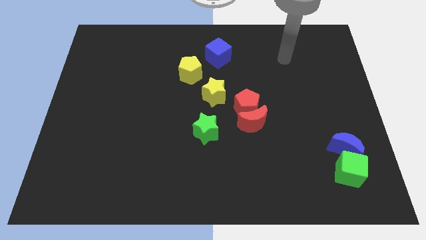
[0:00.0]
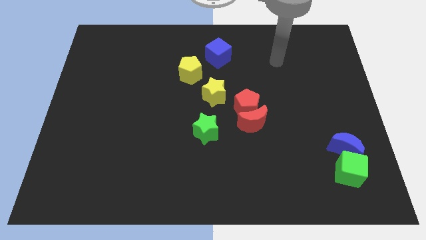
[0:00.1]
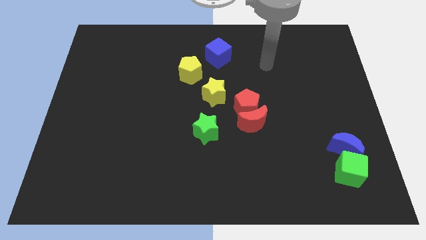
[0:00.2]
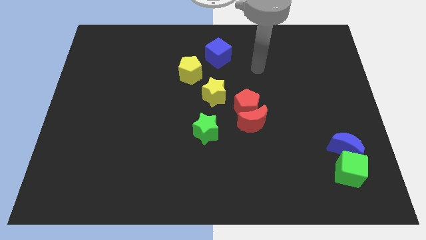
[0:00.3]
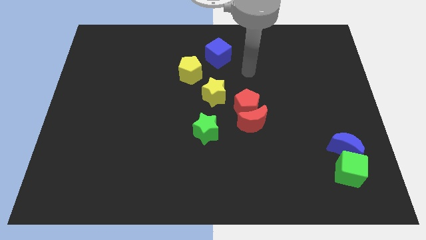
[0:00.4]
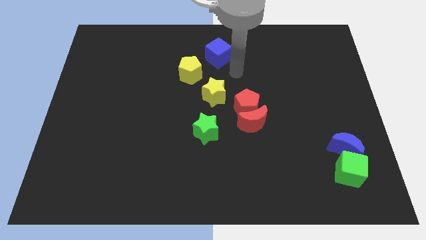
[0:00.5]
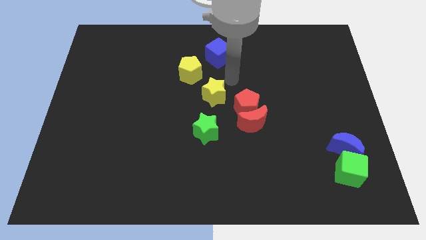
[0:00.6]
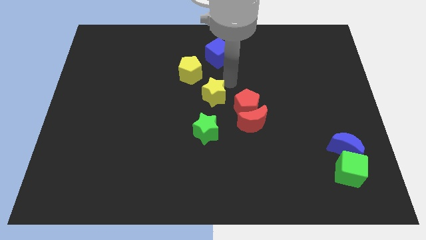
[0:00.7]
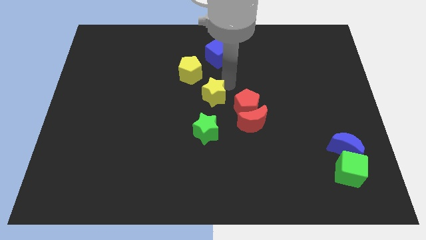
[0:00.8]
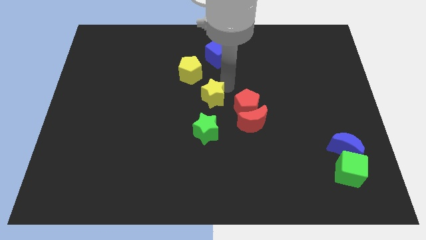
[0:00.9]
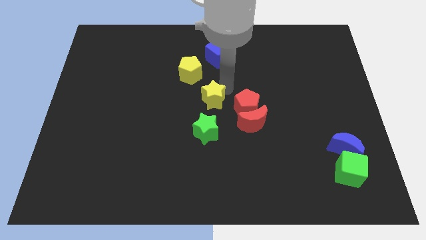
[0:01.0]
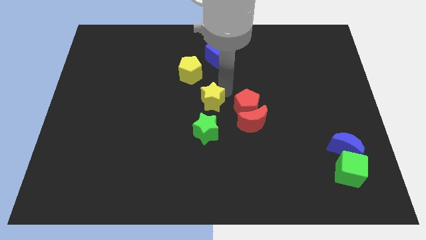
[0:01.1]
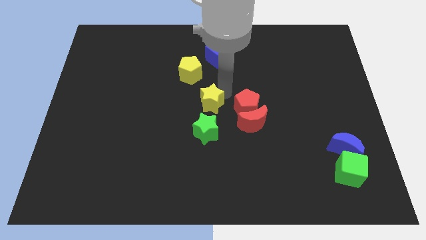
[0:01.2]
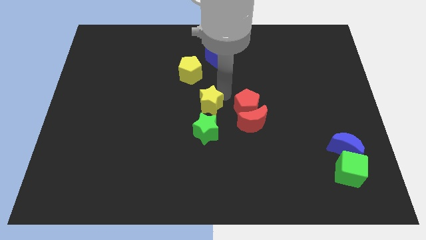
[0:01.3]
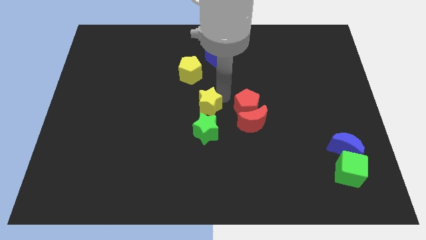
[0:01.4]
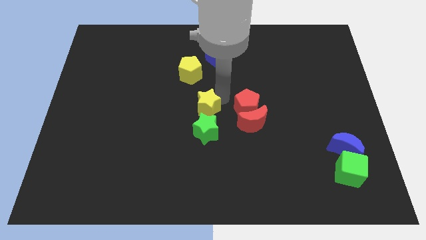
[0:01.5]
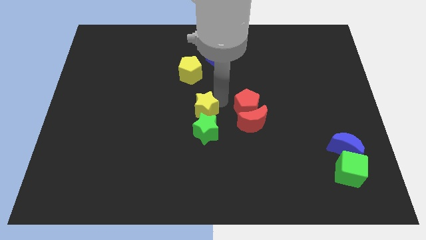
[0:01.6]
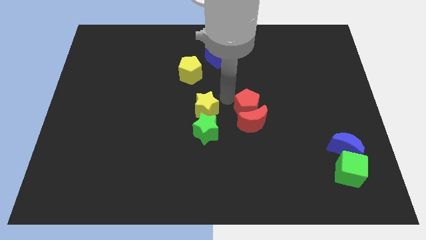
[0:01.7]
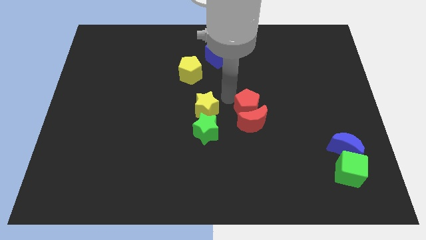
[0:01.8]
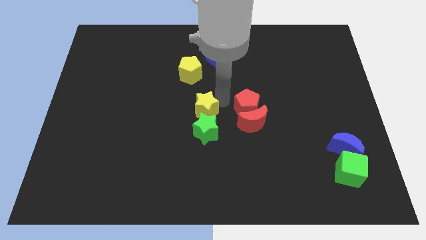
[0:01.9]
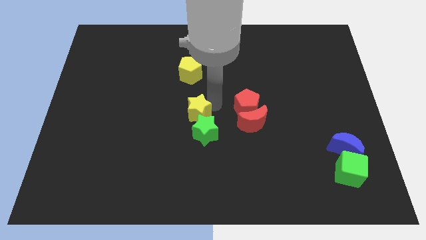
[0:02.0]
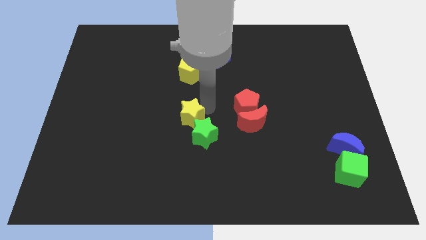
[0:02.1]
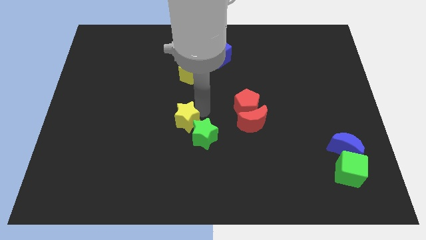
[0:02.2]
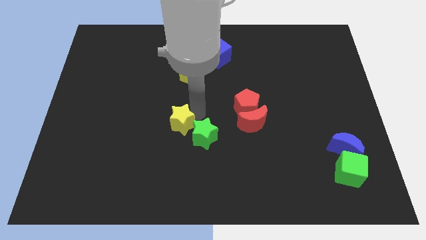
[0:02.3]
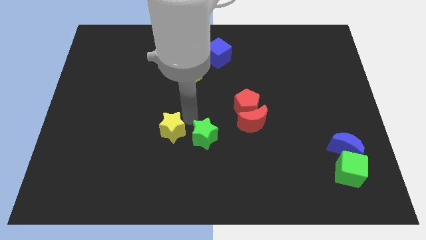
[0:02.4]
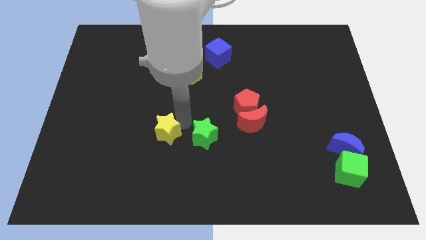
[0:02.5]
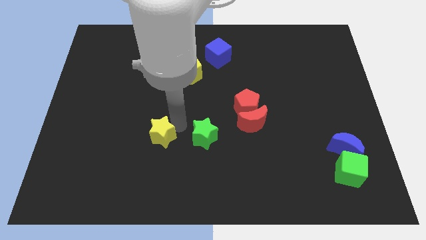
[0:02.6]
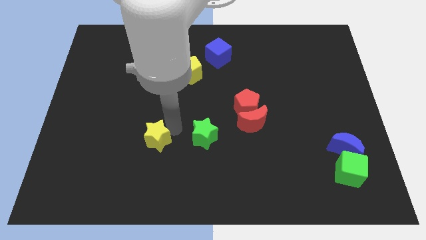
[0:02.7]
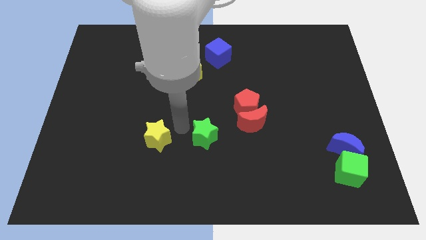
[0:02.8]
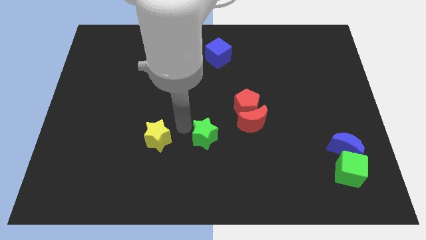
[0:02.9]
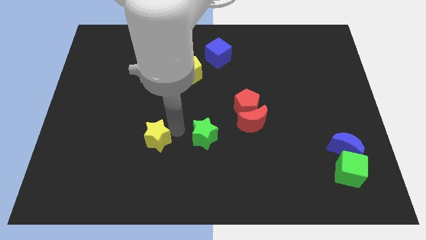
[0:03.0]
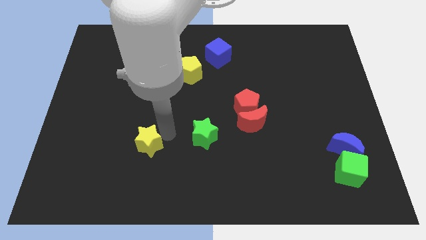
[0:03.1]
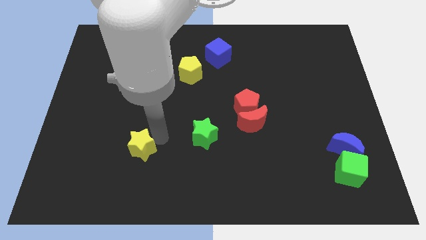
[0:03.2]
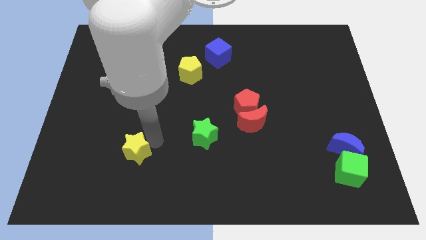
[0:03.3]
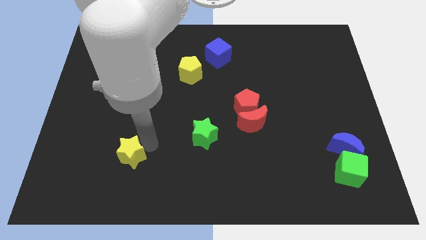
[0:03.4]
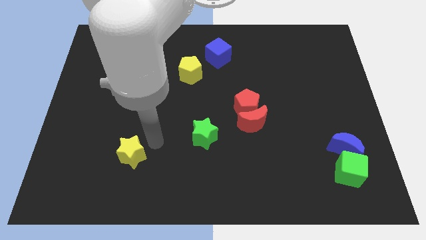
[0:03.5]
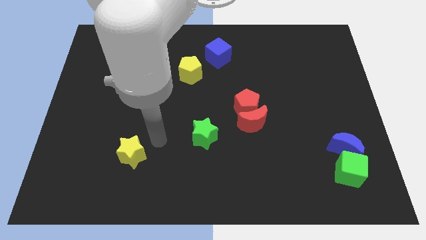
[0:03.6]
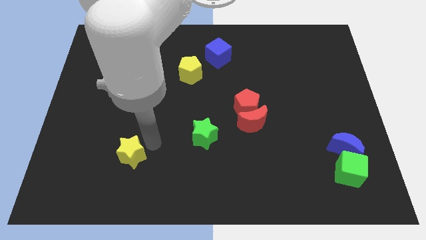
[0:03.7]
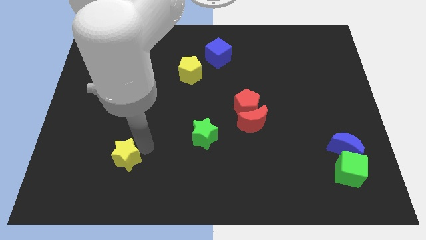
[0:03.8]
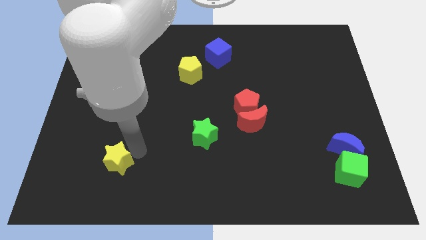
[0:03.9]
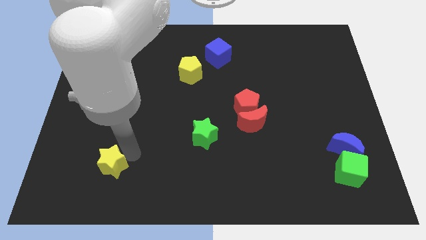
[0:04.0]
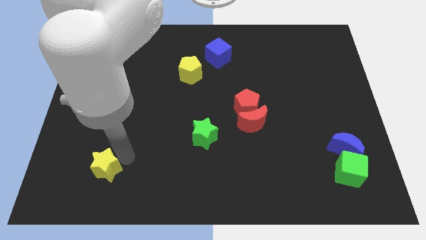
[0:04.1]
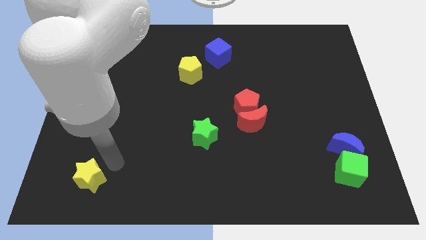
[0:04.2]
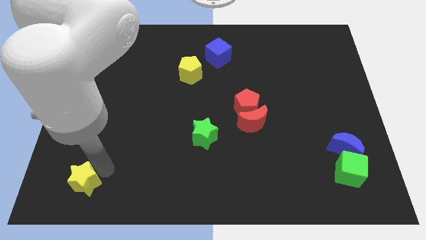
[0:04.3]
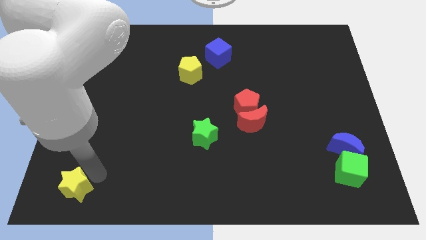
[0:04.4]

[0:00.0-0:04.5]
put the yellow star to the bottom left corner

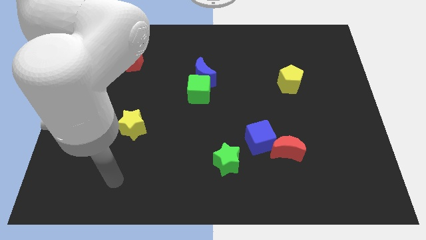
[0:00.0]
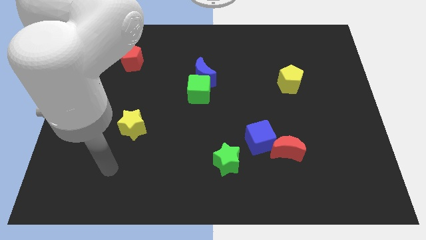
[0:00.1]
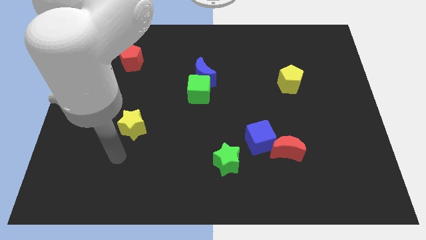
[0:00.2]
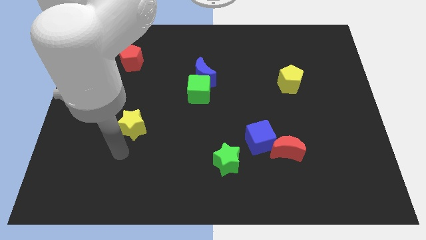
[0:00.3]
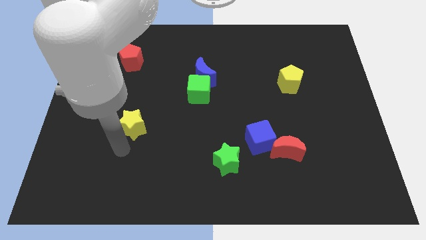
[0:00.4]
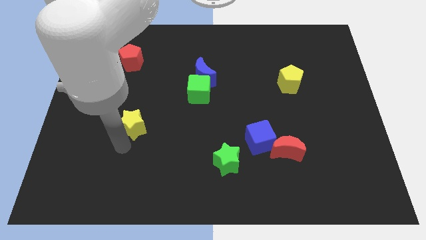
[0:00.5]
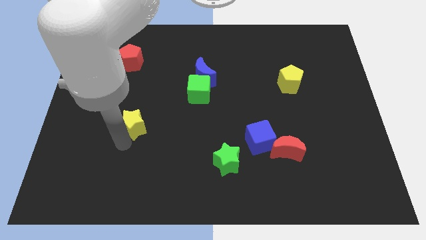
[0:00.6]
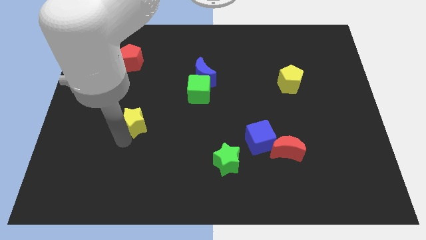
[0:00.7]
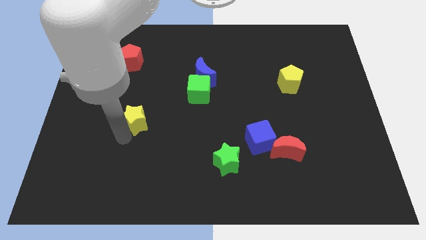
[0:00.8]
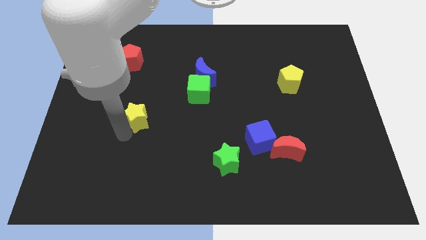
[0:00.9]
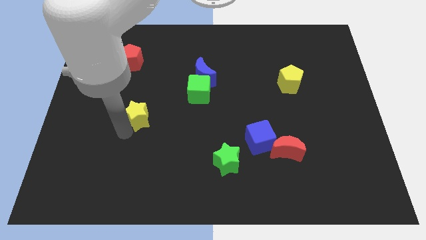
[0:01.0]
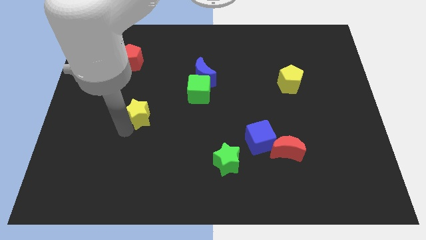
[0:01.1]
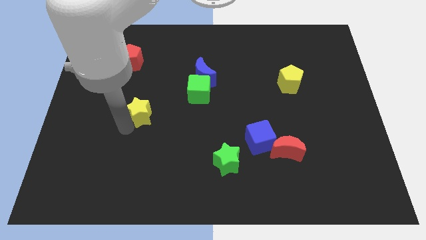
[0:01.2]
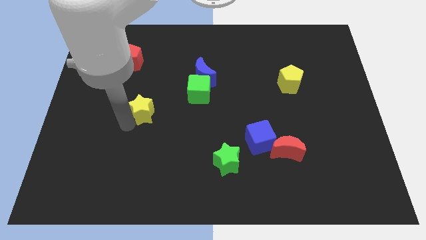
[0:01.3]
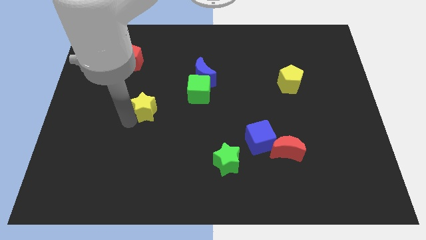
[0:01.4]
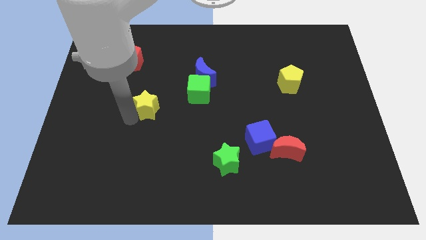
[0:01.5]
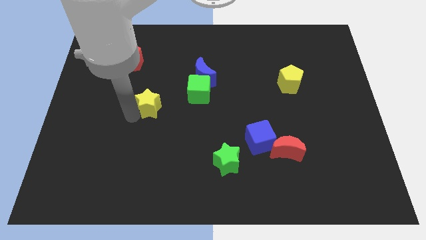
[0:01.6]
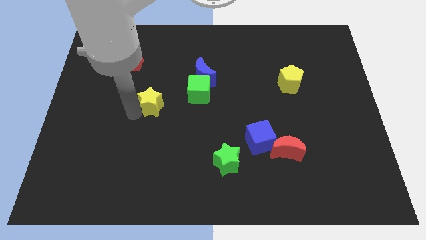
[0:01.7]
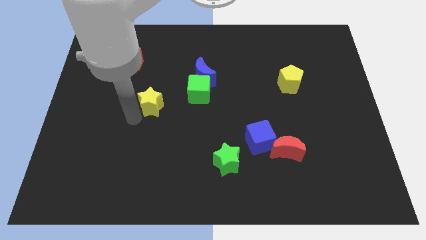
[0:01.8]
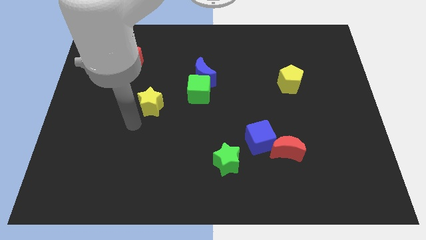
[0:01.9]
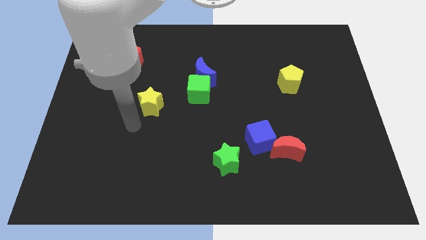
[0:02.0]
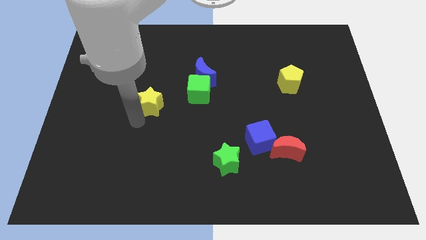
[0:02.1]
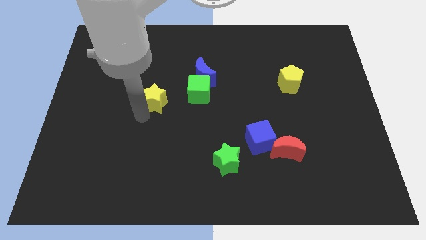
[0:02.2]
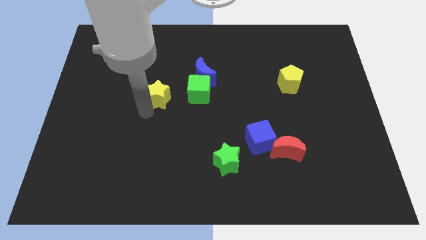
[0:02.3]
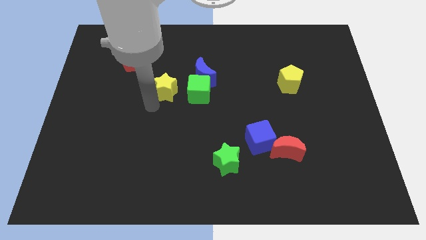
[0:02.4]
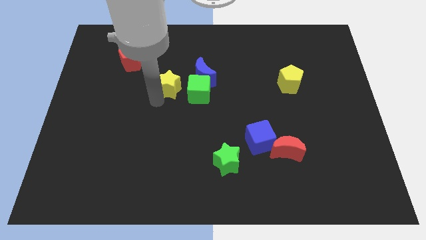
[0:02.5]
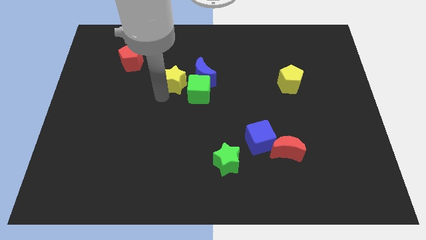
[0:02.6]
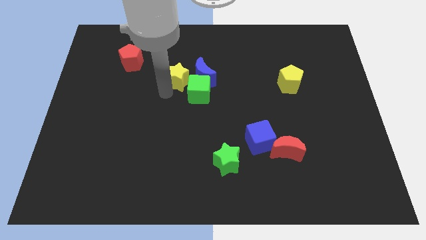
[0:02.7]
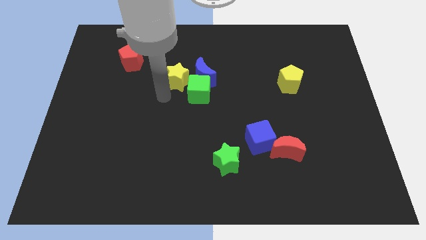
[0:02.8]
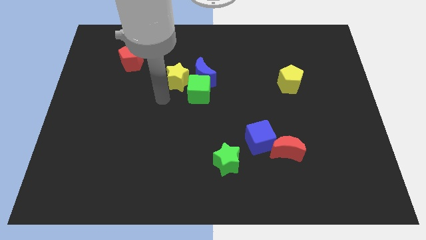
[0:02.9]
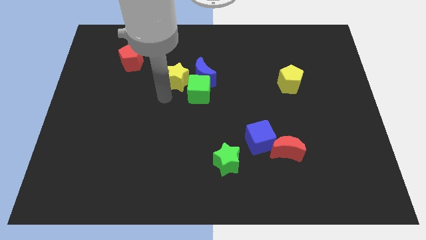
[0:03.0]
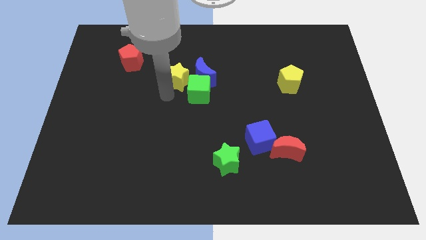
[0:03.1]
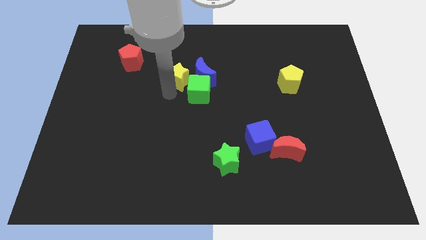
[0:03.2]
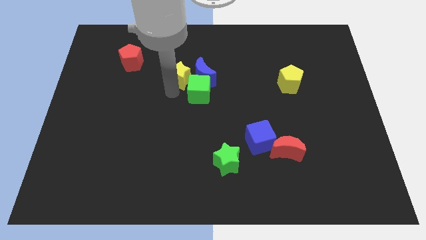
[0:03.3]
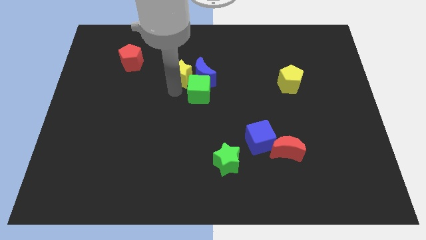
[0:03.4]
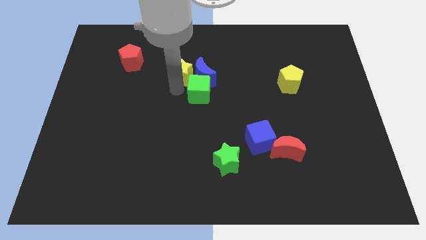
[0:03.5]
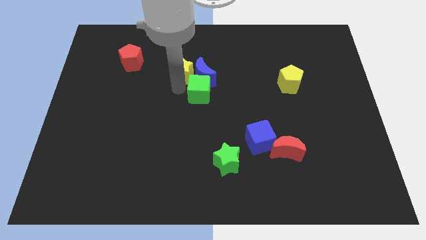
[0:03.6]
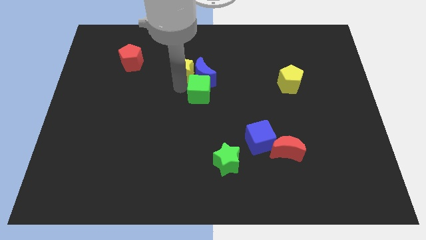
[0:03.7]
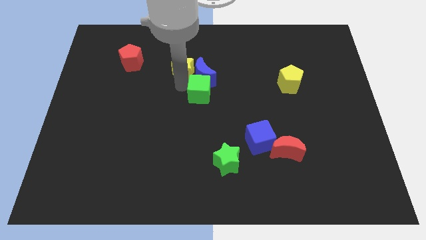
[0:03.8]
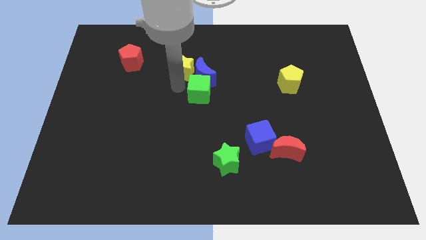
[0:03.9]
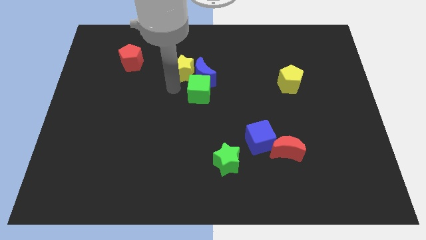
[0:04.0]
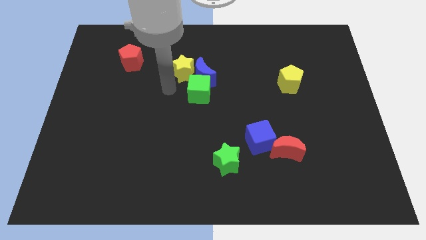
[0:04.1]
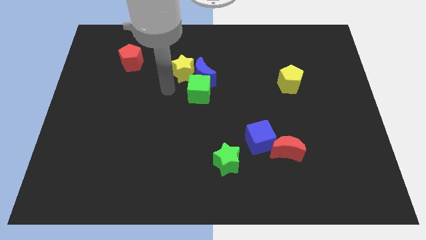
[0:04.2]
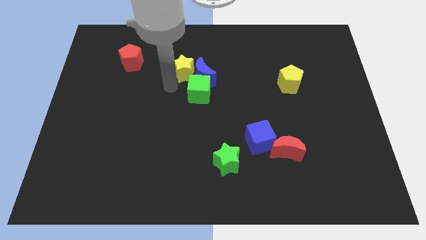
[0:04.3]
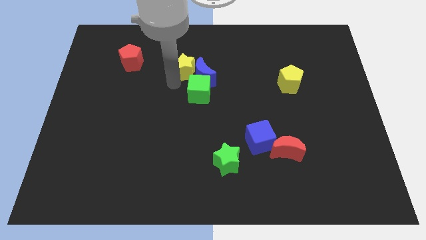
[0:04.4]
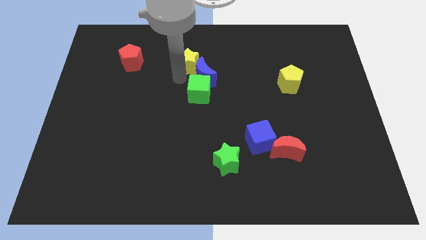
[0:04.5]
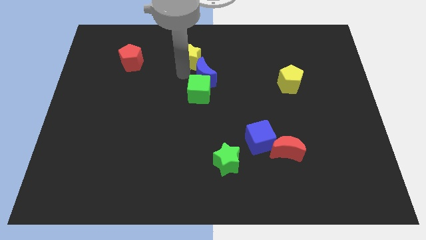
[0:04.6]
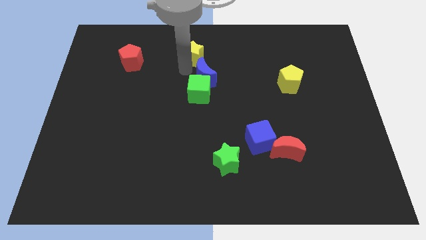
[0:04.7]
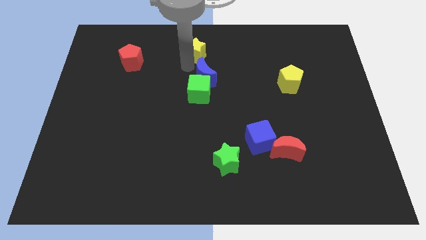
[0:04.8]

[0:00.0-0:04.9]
move the yellow star to the top side
